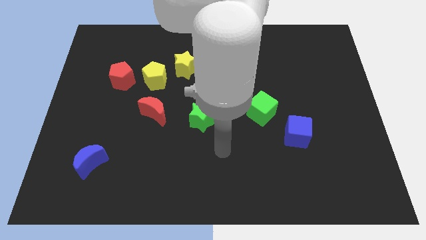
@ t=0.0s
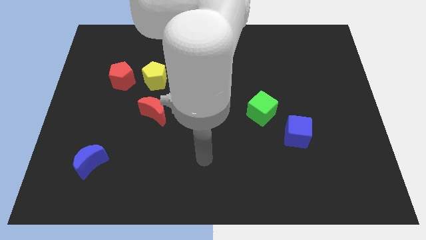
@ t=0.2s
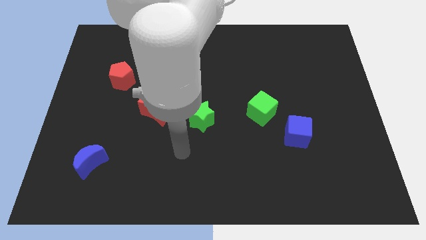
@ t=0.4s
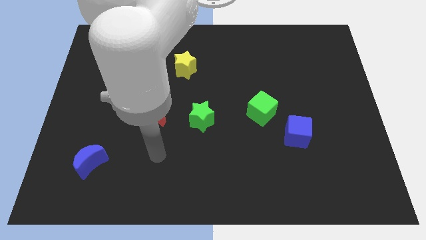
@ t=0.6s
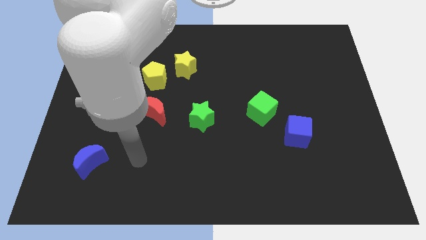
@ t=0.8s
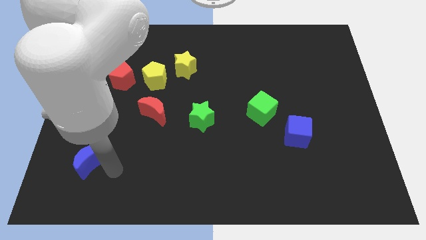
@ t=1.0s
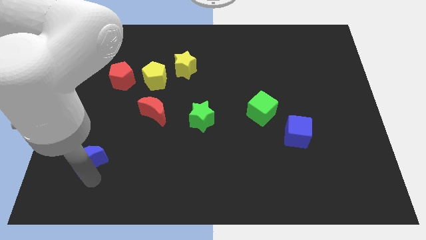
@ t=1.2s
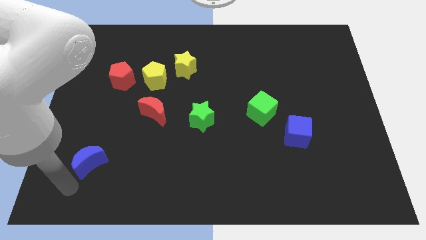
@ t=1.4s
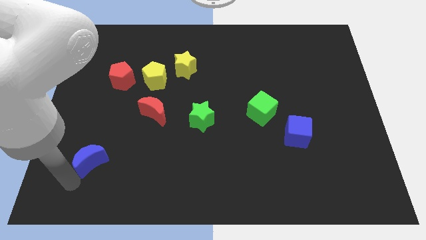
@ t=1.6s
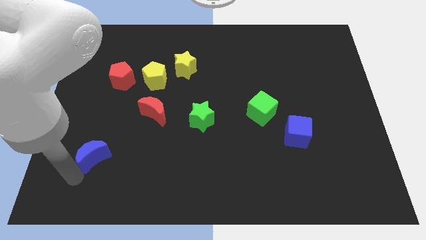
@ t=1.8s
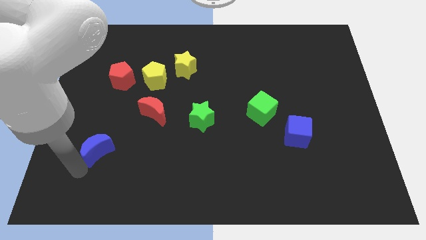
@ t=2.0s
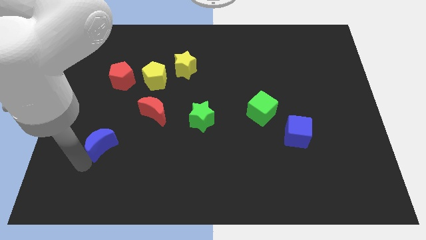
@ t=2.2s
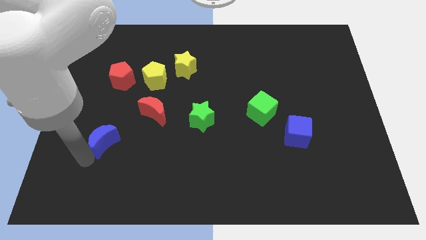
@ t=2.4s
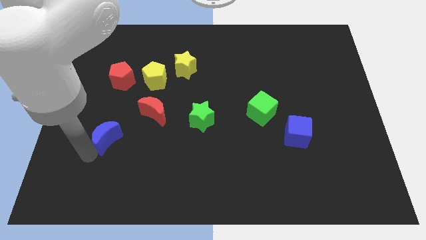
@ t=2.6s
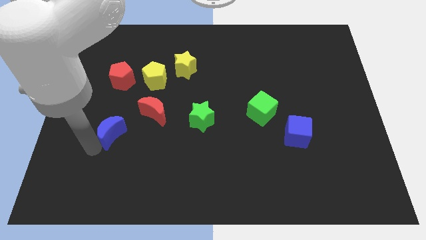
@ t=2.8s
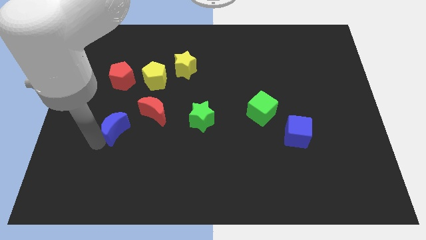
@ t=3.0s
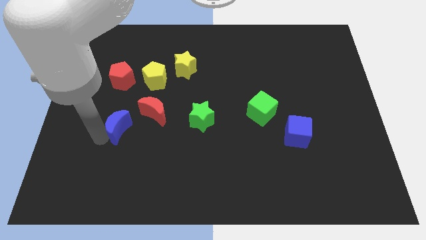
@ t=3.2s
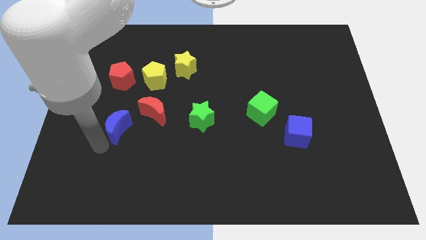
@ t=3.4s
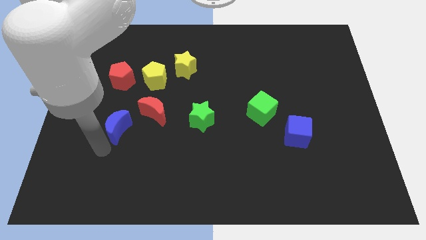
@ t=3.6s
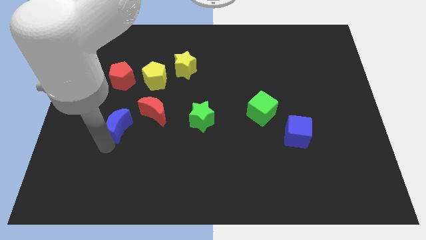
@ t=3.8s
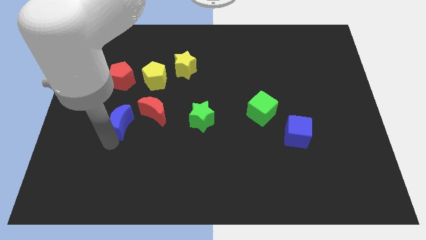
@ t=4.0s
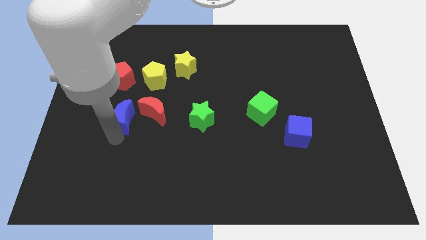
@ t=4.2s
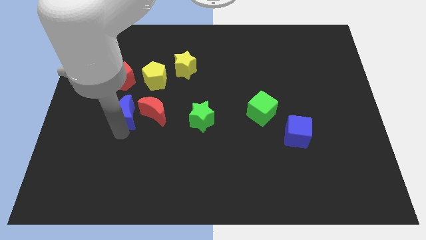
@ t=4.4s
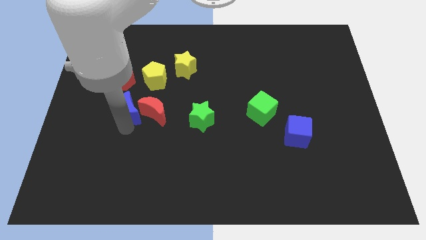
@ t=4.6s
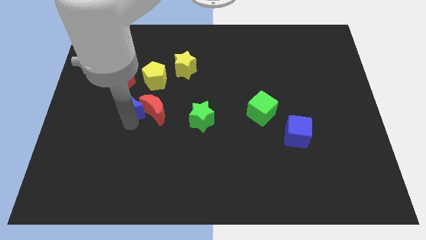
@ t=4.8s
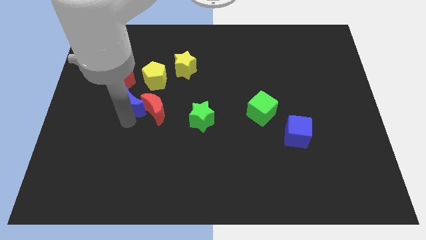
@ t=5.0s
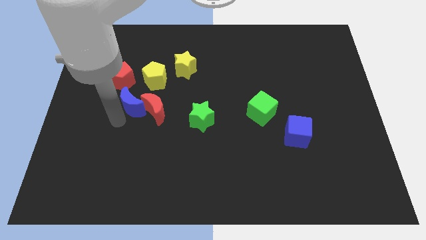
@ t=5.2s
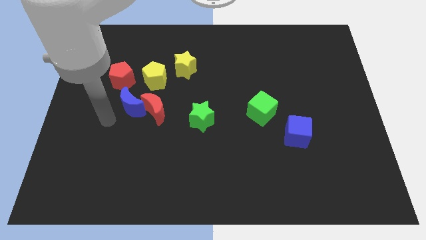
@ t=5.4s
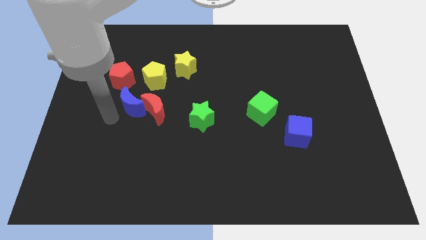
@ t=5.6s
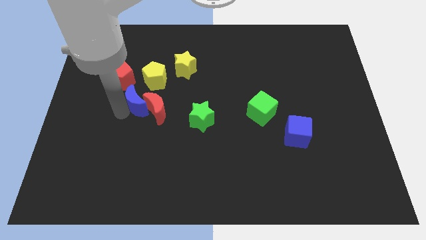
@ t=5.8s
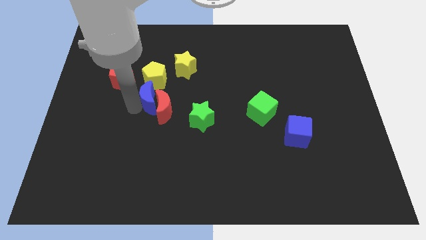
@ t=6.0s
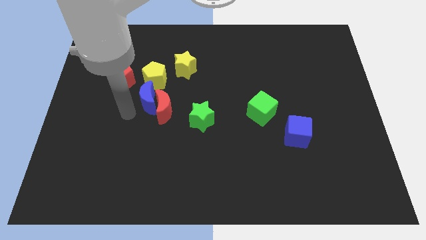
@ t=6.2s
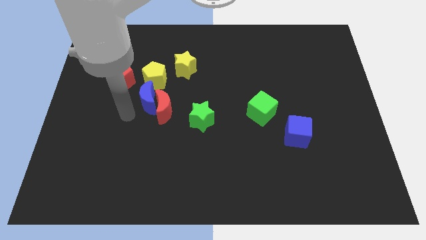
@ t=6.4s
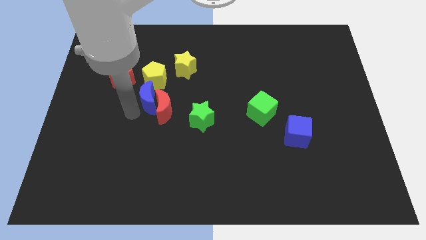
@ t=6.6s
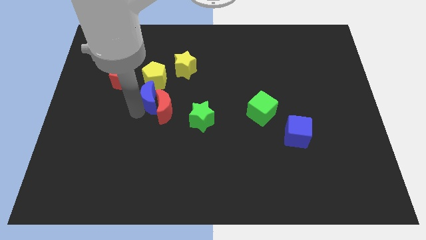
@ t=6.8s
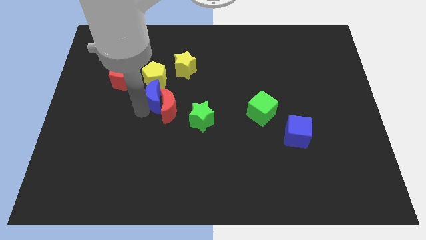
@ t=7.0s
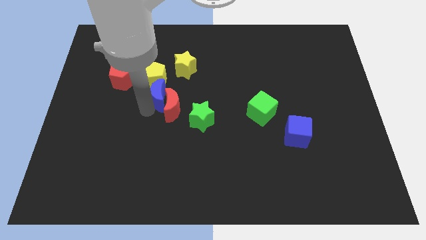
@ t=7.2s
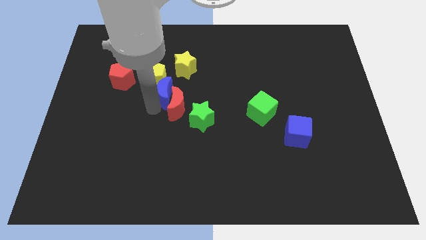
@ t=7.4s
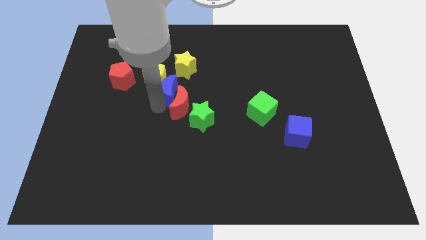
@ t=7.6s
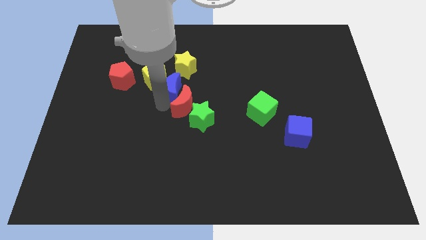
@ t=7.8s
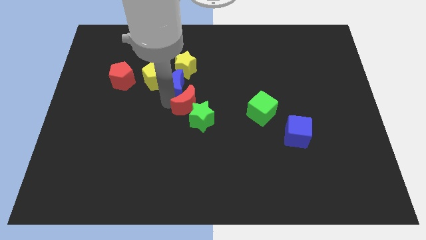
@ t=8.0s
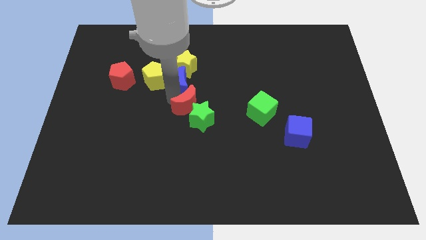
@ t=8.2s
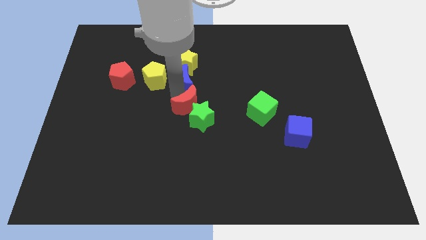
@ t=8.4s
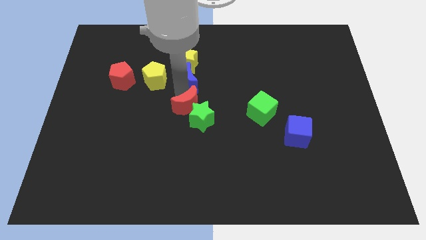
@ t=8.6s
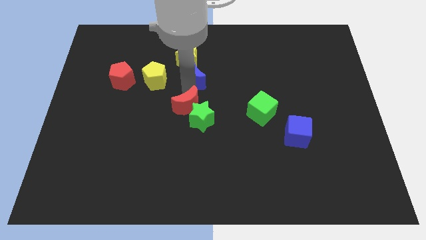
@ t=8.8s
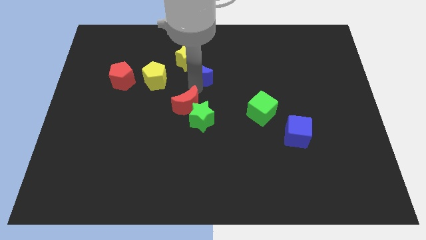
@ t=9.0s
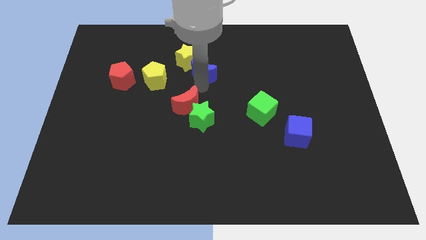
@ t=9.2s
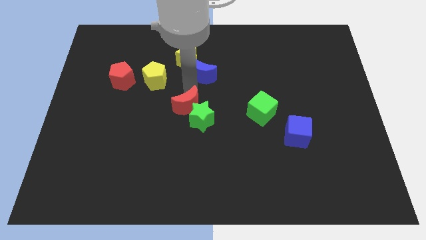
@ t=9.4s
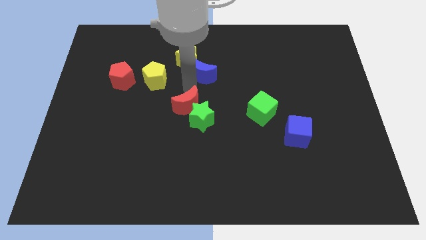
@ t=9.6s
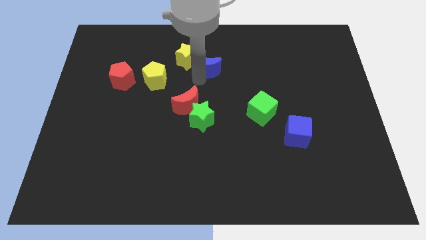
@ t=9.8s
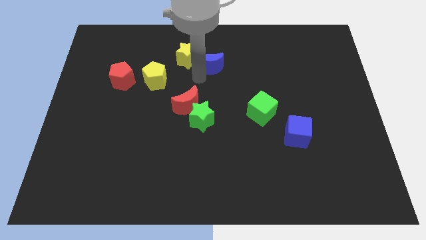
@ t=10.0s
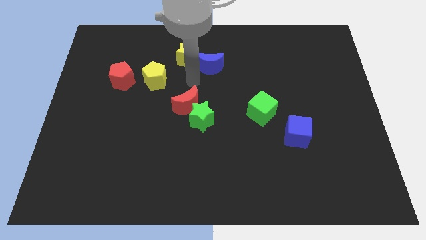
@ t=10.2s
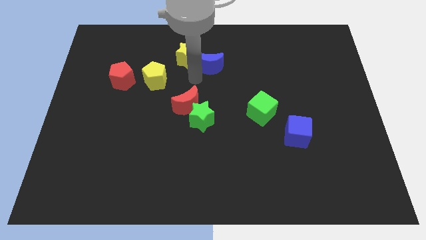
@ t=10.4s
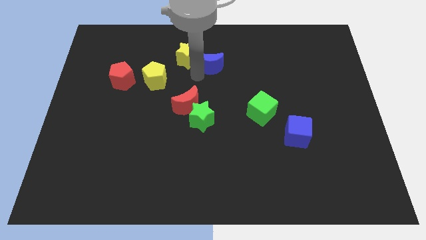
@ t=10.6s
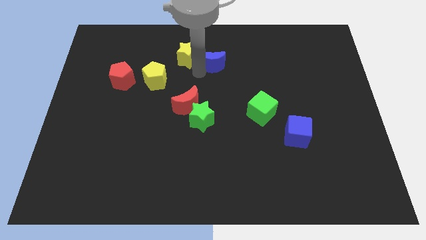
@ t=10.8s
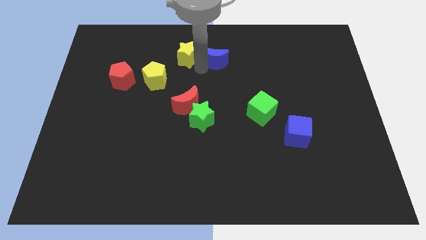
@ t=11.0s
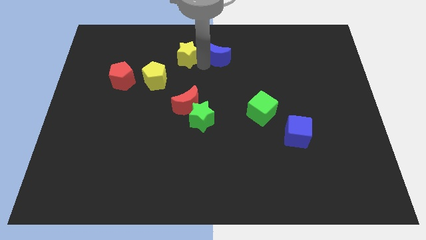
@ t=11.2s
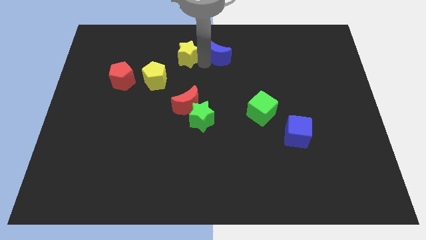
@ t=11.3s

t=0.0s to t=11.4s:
move the blue moon to the top

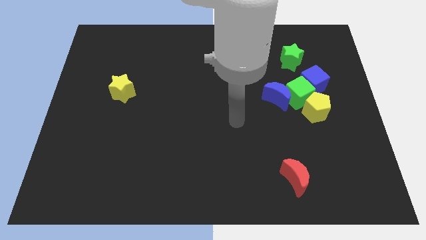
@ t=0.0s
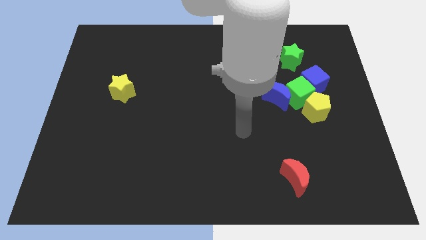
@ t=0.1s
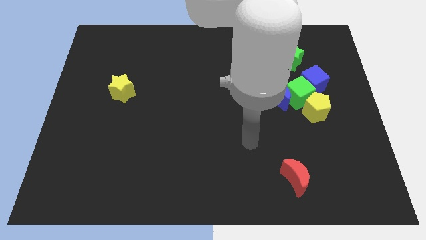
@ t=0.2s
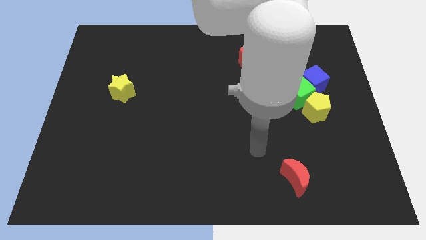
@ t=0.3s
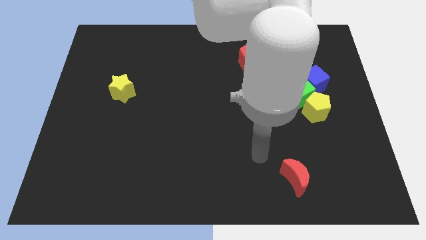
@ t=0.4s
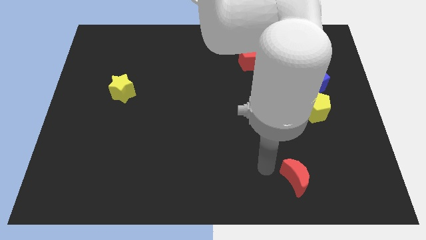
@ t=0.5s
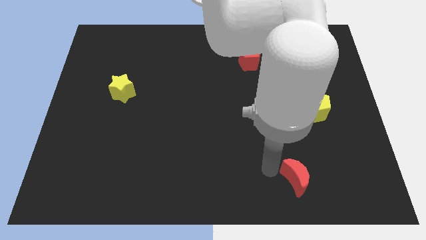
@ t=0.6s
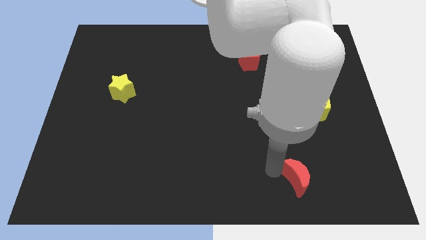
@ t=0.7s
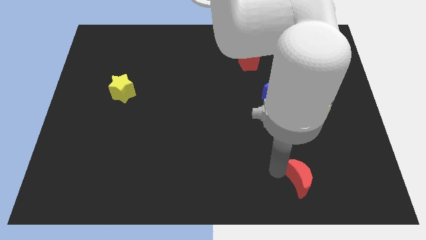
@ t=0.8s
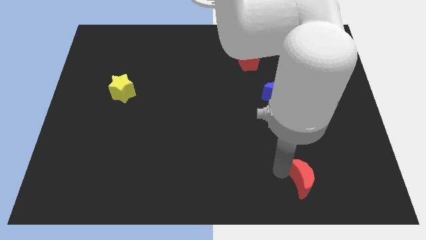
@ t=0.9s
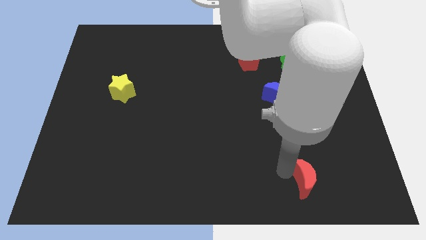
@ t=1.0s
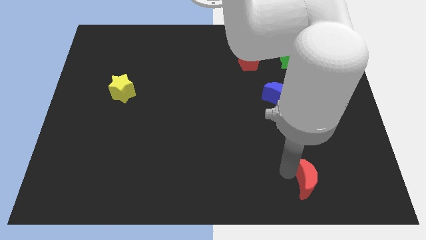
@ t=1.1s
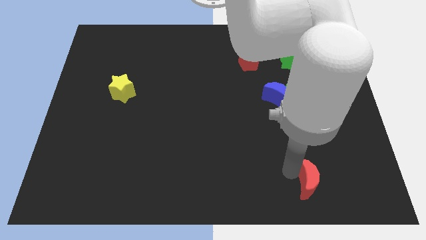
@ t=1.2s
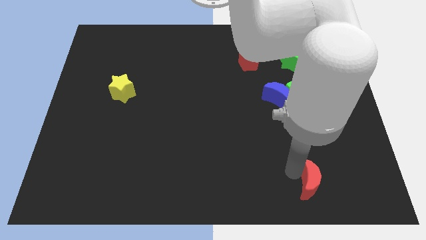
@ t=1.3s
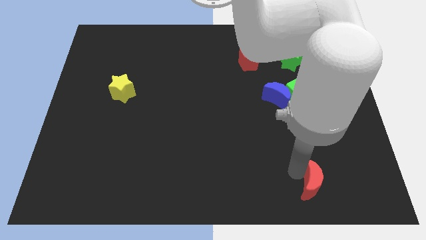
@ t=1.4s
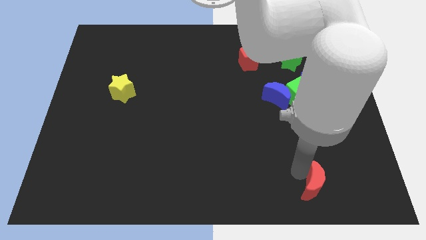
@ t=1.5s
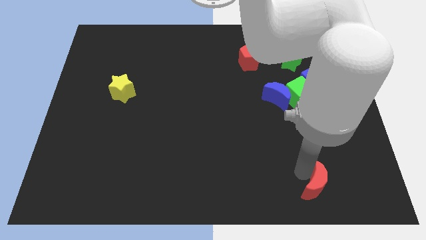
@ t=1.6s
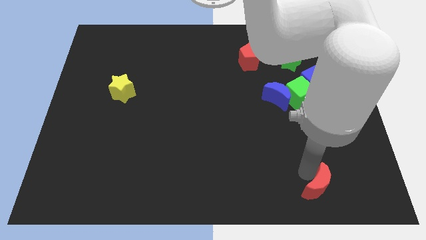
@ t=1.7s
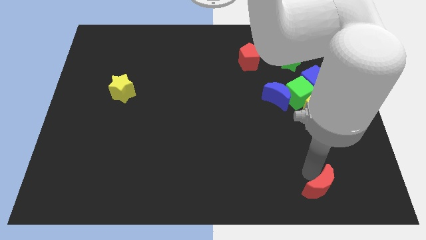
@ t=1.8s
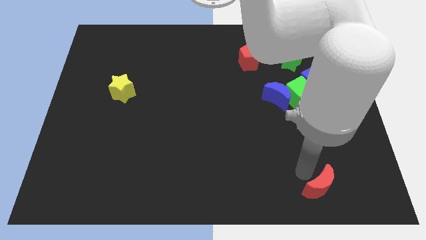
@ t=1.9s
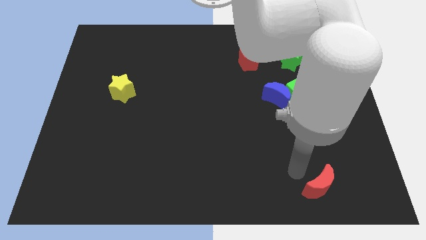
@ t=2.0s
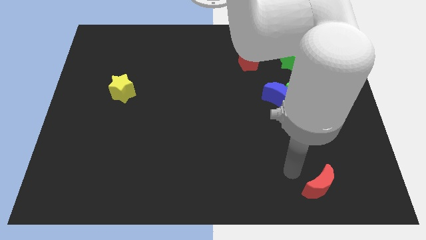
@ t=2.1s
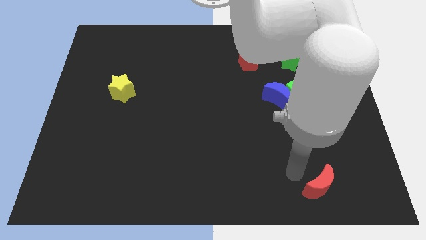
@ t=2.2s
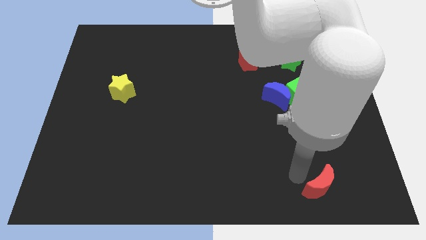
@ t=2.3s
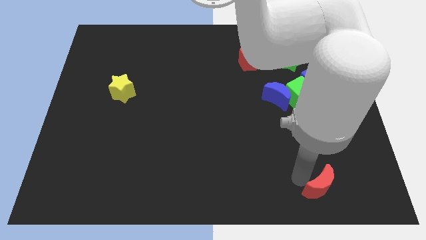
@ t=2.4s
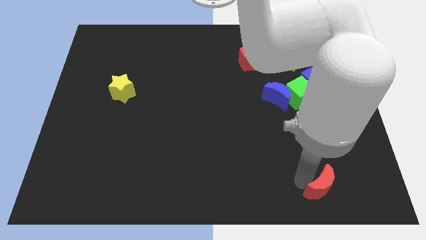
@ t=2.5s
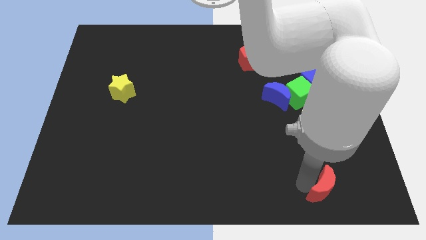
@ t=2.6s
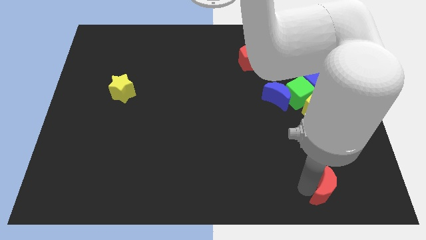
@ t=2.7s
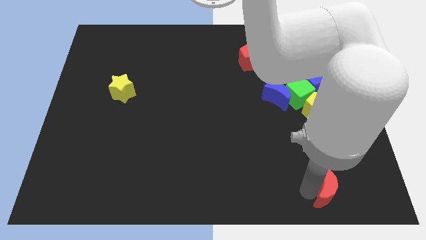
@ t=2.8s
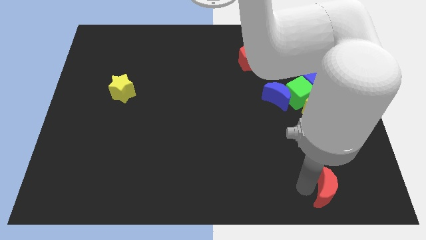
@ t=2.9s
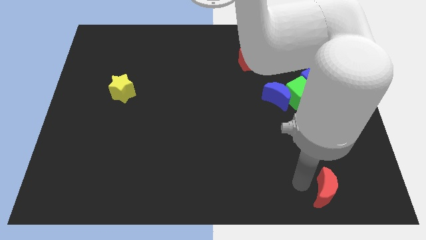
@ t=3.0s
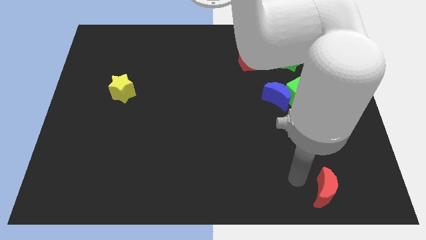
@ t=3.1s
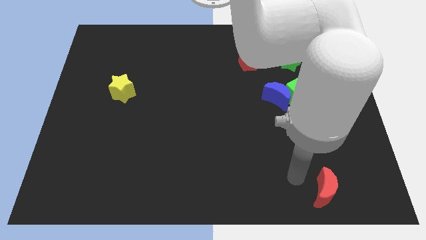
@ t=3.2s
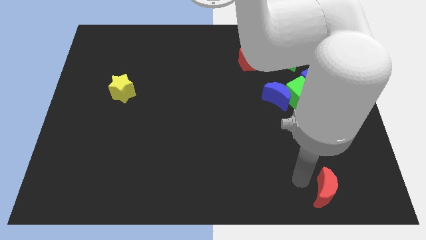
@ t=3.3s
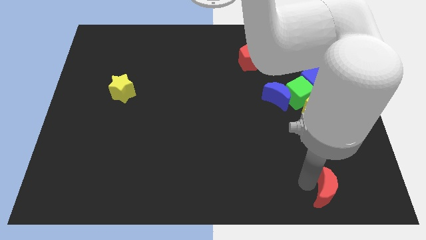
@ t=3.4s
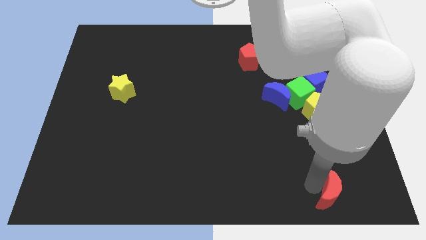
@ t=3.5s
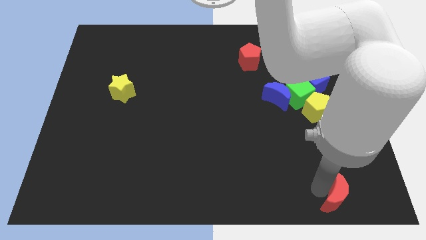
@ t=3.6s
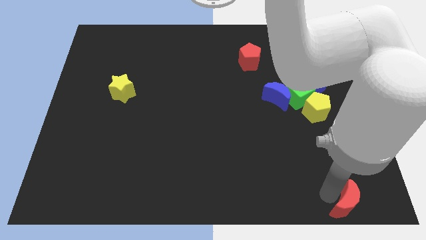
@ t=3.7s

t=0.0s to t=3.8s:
slide the red moon to the bottom right
